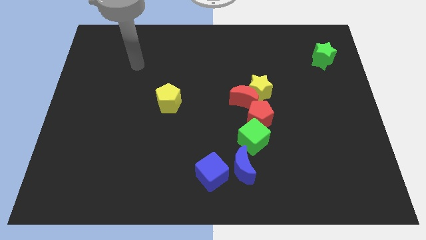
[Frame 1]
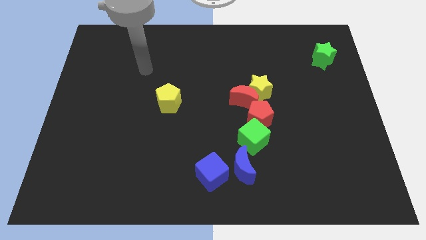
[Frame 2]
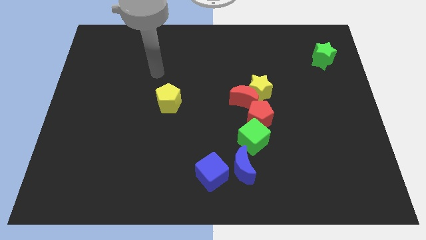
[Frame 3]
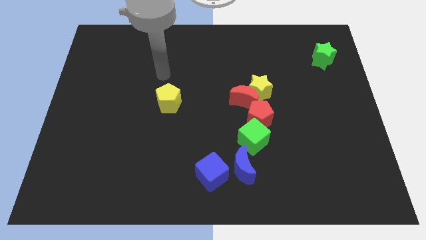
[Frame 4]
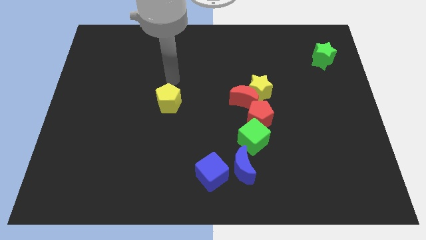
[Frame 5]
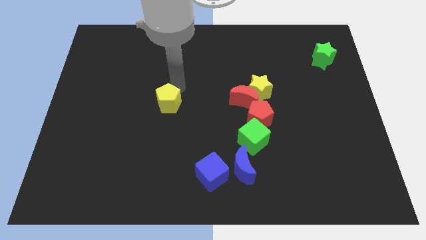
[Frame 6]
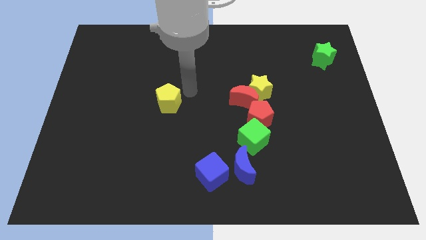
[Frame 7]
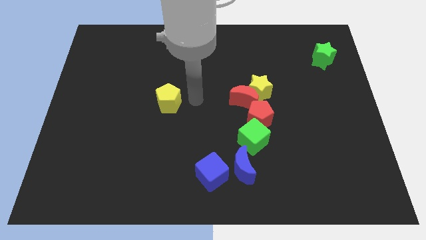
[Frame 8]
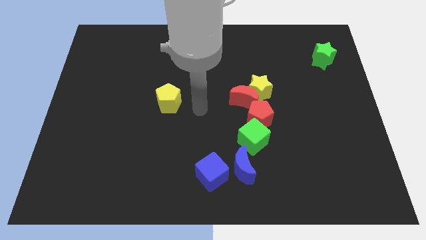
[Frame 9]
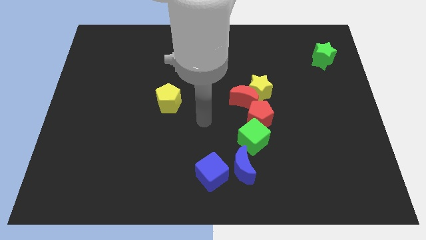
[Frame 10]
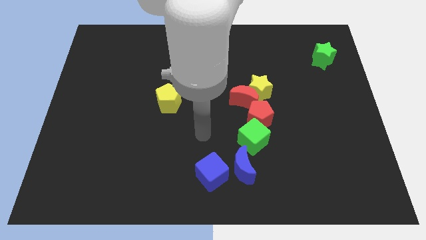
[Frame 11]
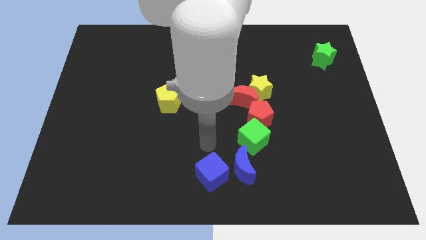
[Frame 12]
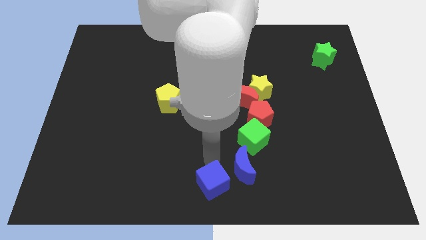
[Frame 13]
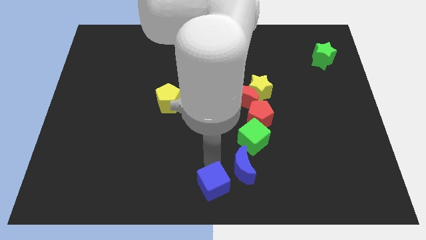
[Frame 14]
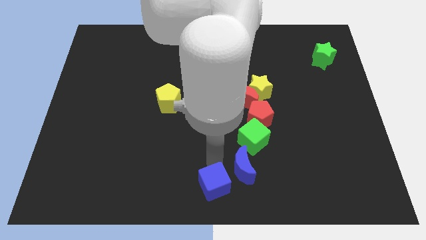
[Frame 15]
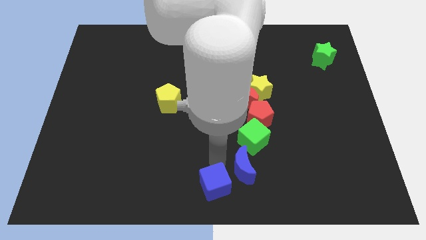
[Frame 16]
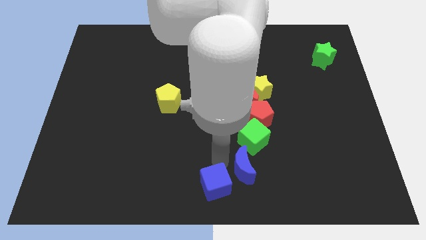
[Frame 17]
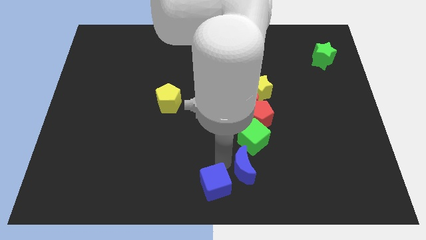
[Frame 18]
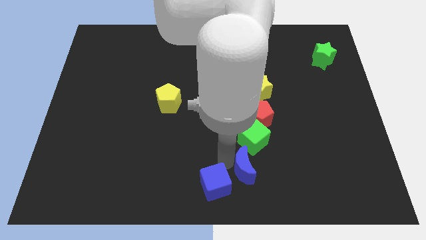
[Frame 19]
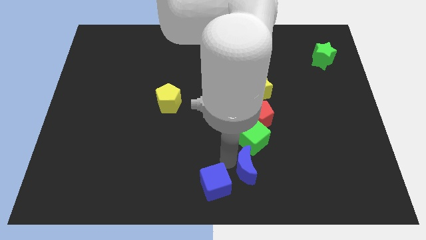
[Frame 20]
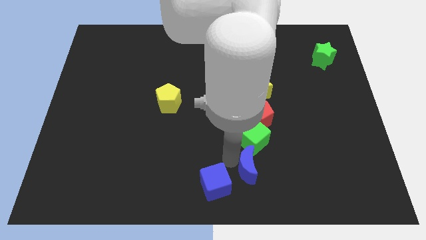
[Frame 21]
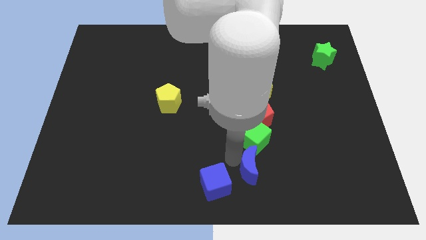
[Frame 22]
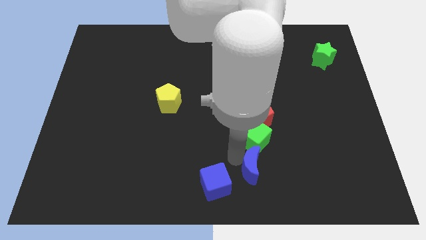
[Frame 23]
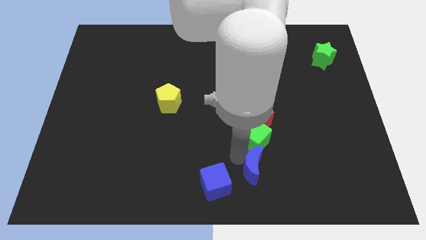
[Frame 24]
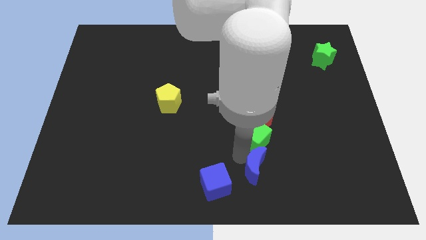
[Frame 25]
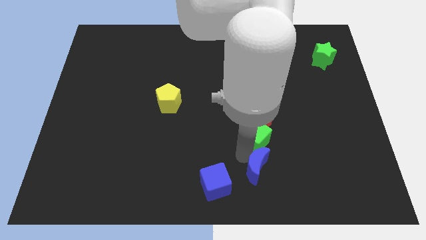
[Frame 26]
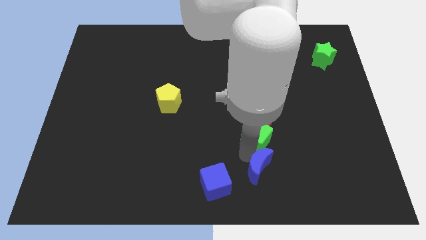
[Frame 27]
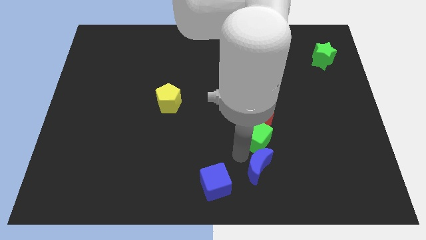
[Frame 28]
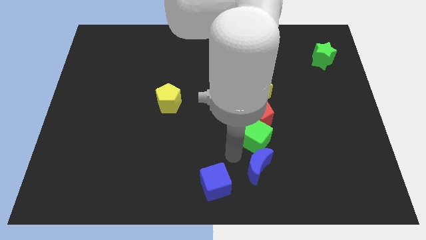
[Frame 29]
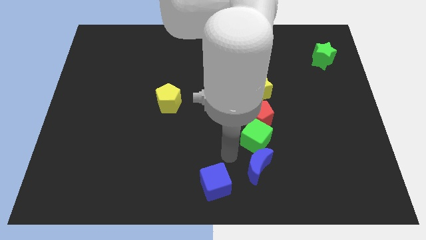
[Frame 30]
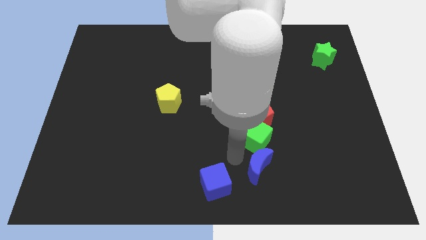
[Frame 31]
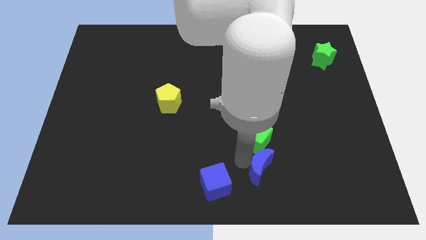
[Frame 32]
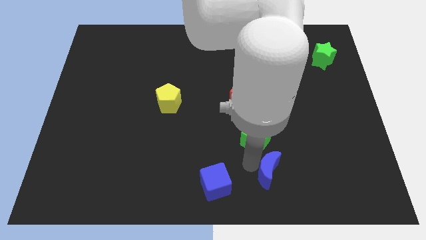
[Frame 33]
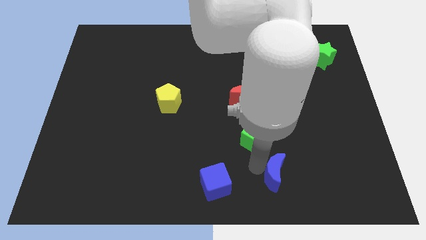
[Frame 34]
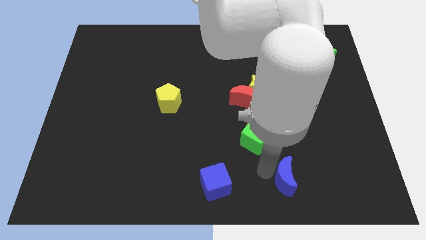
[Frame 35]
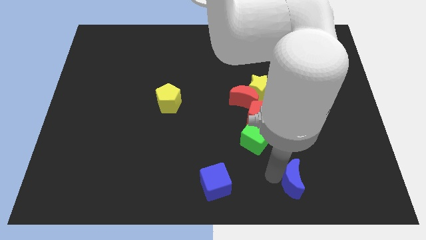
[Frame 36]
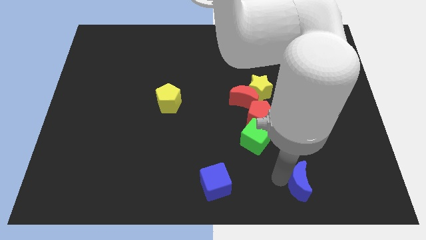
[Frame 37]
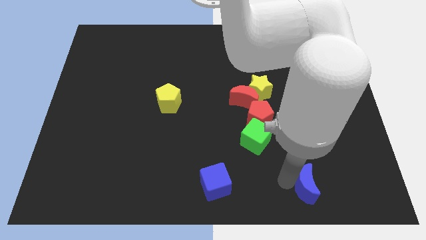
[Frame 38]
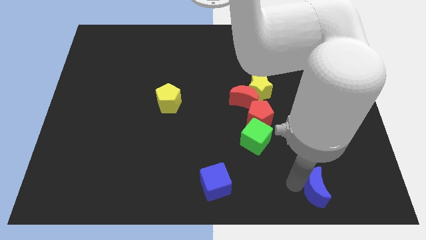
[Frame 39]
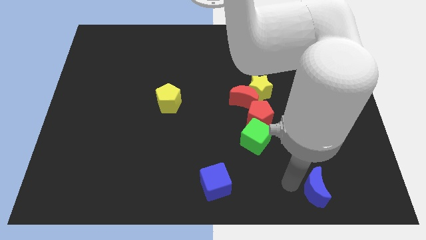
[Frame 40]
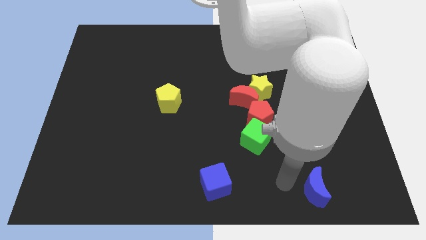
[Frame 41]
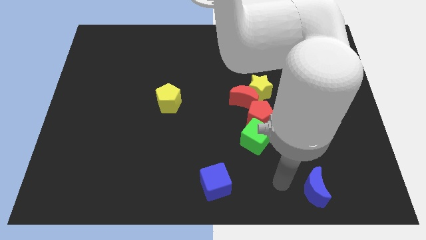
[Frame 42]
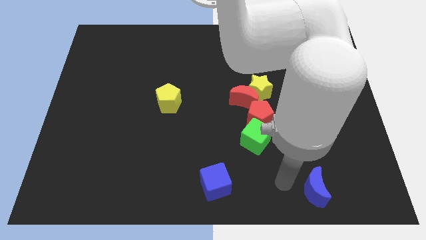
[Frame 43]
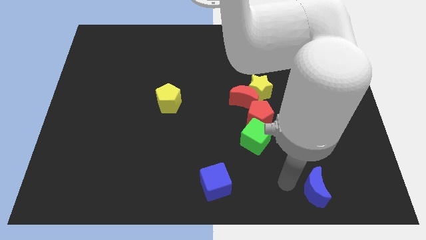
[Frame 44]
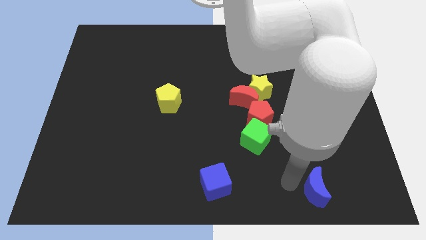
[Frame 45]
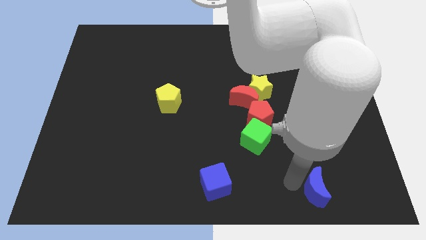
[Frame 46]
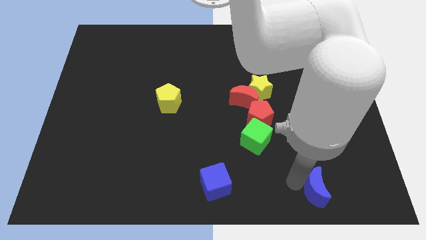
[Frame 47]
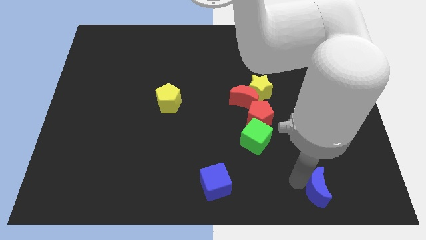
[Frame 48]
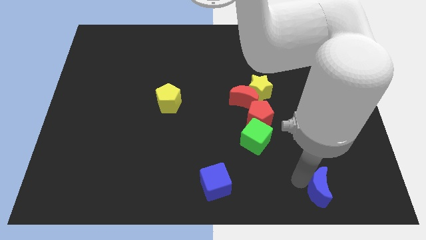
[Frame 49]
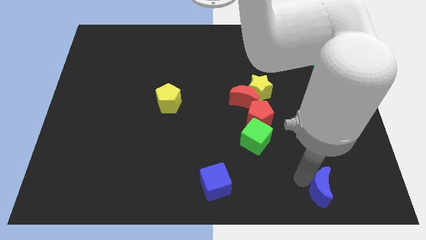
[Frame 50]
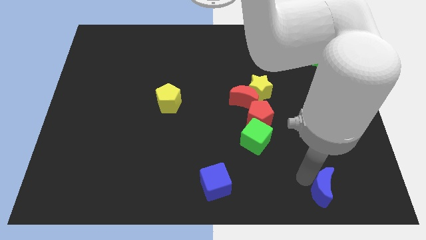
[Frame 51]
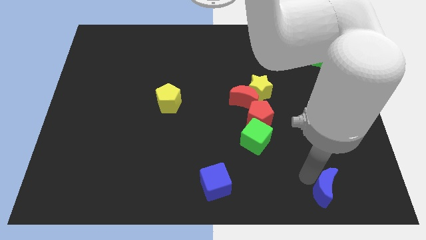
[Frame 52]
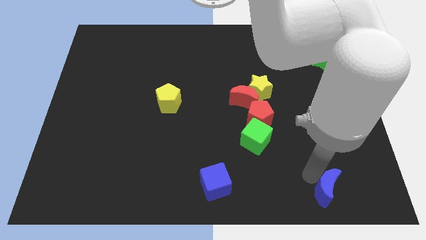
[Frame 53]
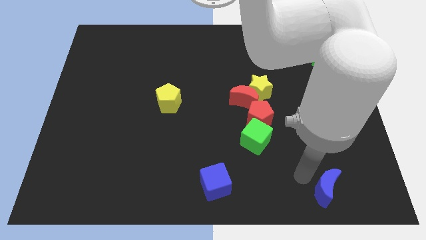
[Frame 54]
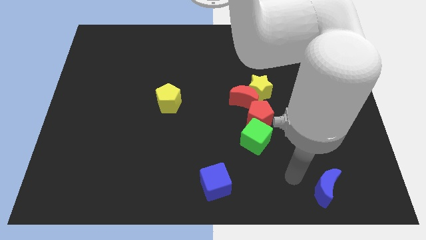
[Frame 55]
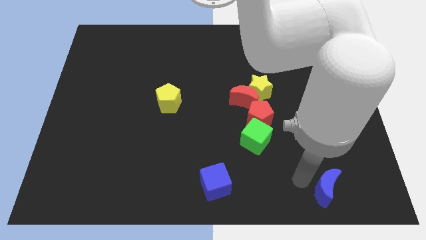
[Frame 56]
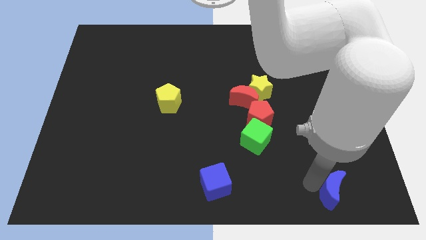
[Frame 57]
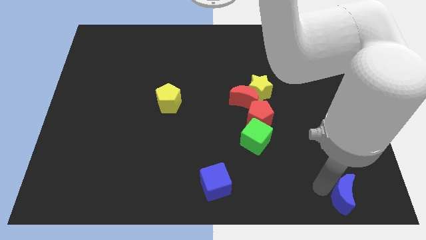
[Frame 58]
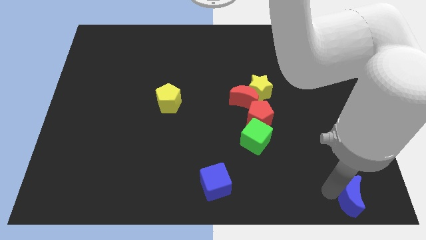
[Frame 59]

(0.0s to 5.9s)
push the blue moon to the bottom right of the board
